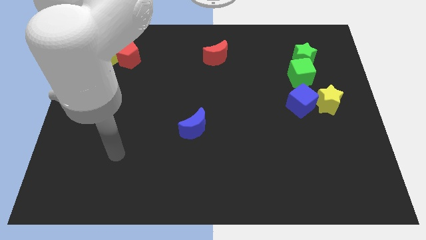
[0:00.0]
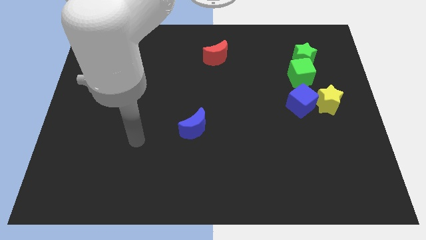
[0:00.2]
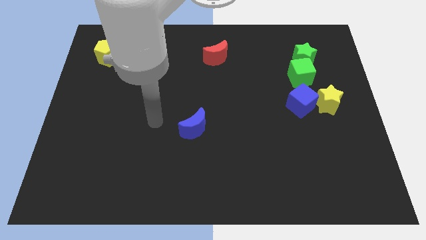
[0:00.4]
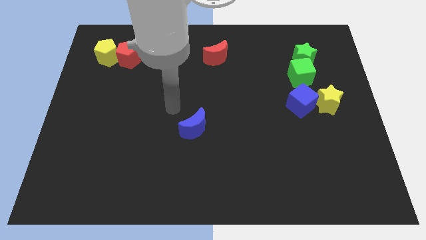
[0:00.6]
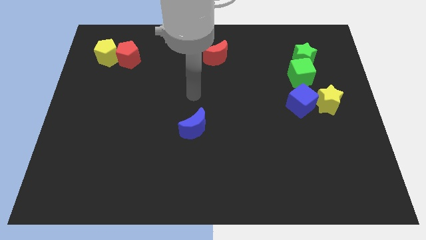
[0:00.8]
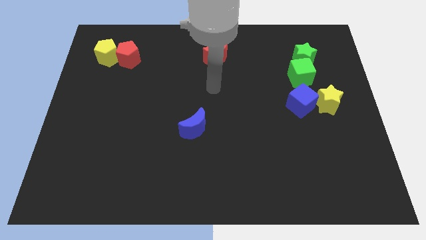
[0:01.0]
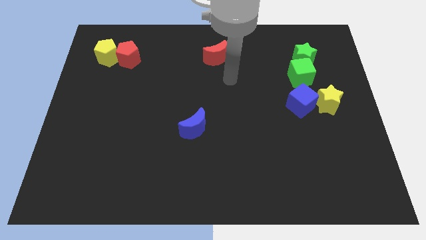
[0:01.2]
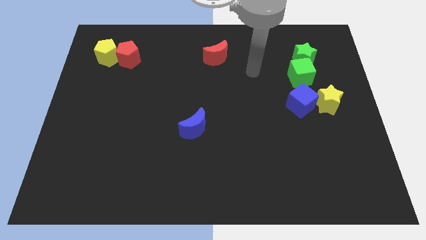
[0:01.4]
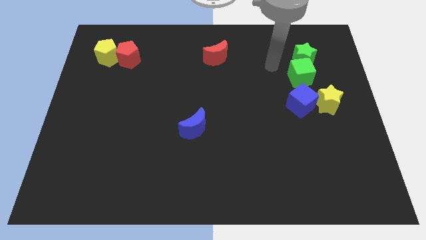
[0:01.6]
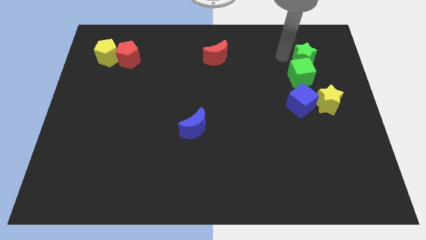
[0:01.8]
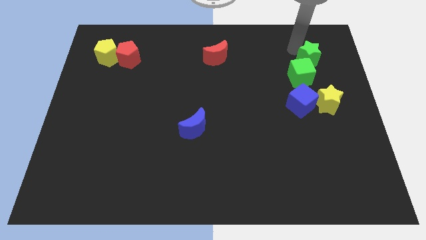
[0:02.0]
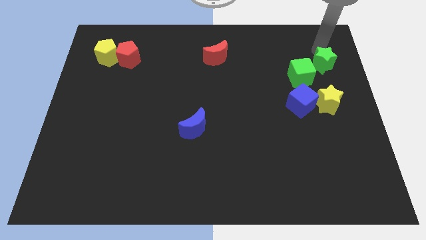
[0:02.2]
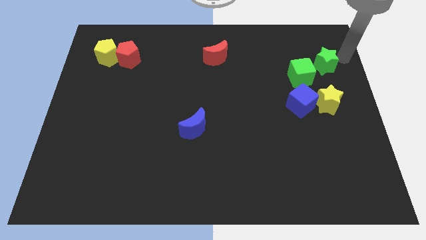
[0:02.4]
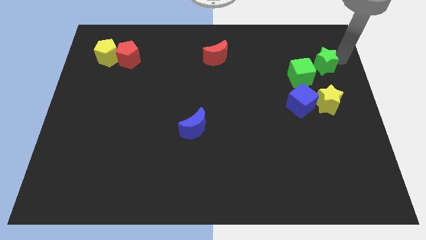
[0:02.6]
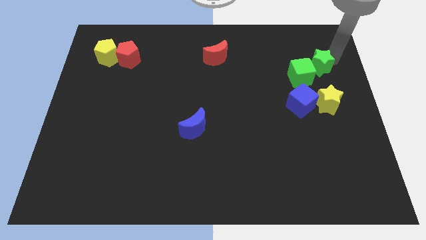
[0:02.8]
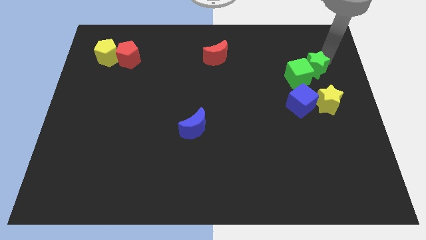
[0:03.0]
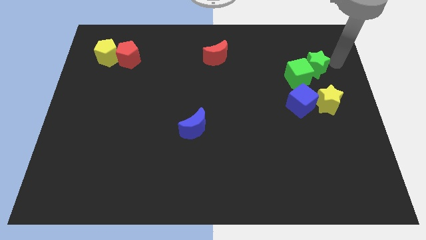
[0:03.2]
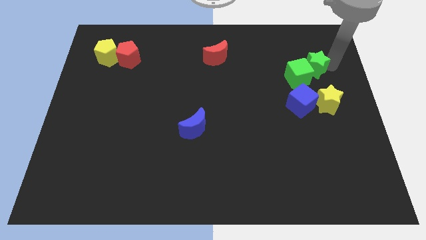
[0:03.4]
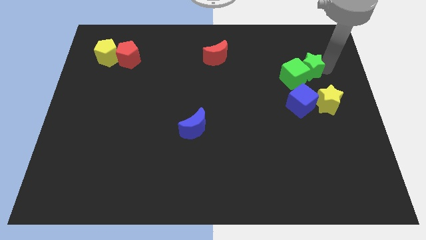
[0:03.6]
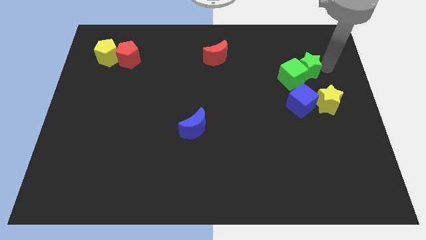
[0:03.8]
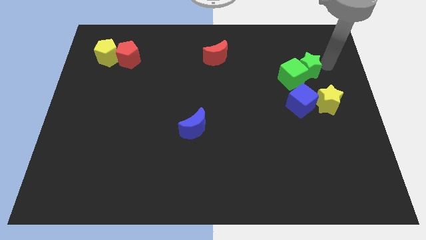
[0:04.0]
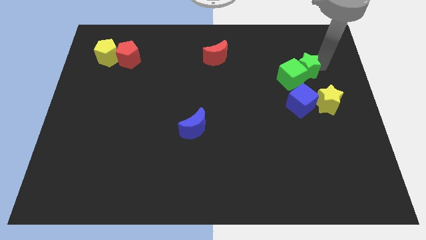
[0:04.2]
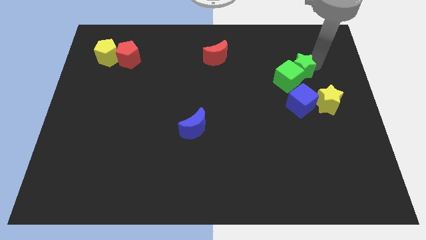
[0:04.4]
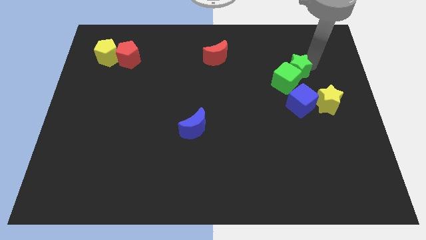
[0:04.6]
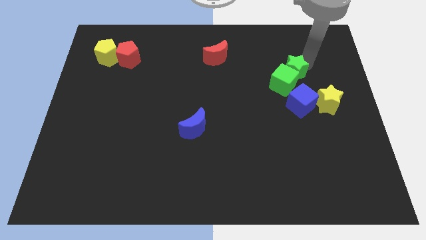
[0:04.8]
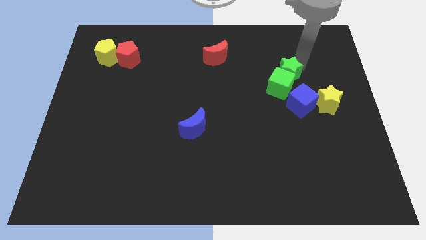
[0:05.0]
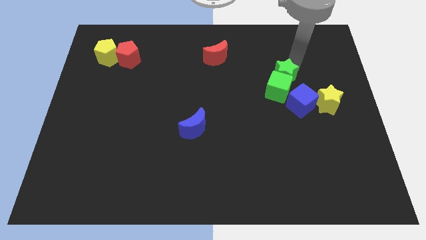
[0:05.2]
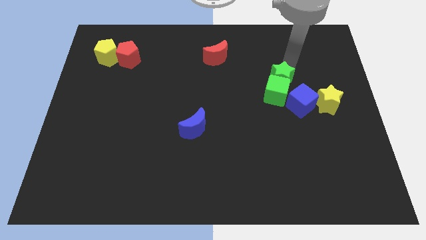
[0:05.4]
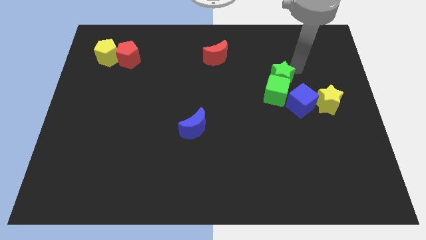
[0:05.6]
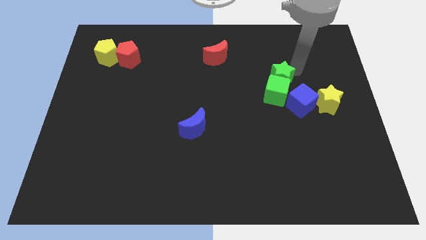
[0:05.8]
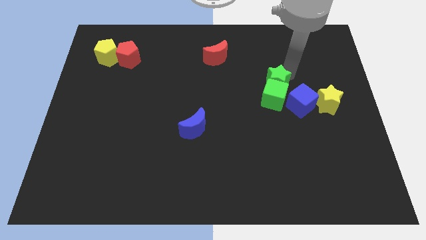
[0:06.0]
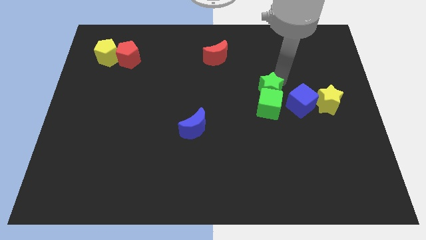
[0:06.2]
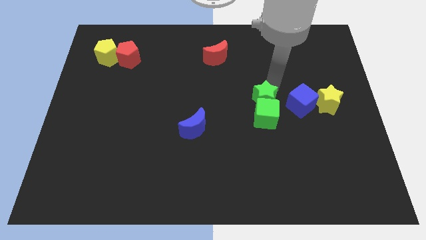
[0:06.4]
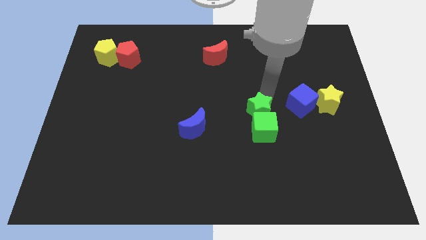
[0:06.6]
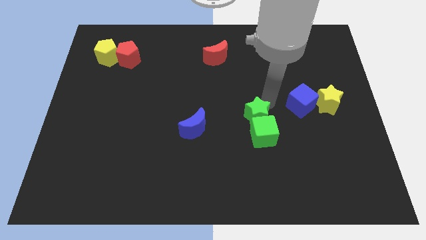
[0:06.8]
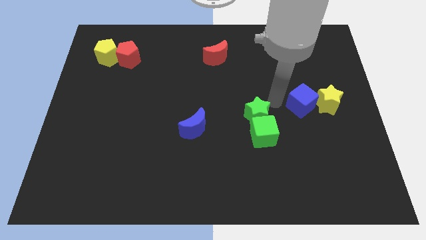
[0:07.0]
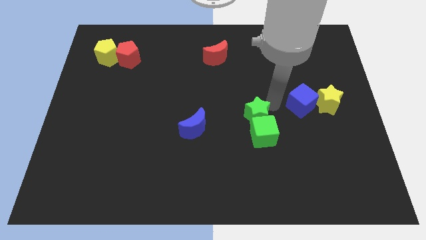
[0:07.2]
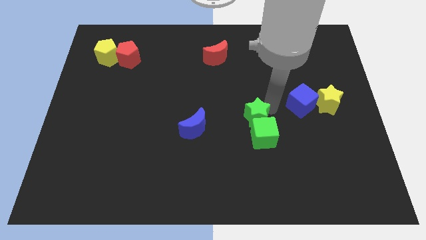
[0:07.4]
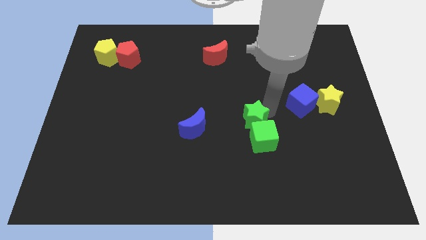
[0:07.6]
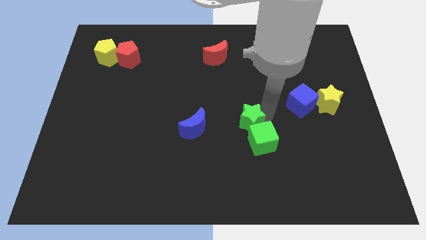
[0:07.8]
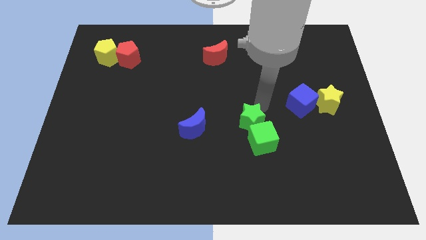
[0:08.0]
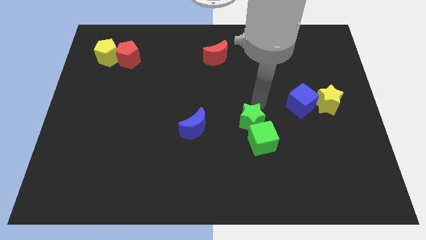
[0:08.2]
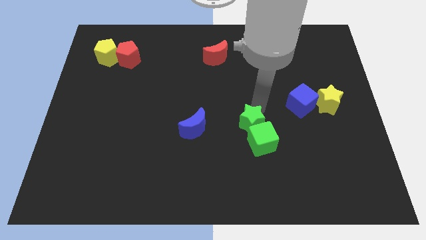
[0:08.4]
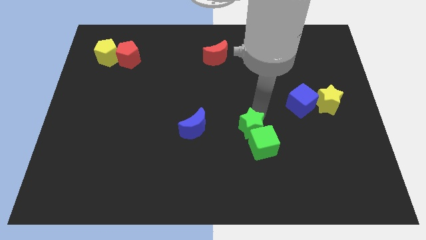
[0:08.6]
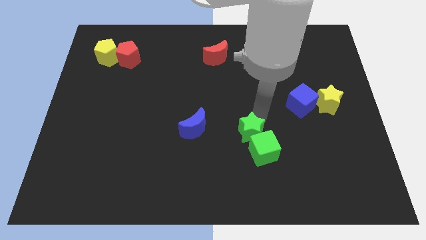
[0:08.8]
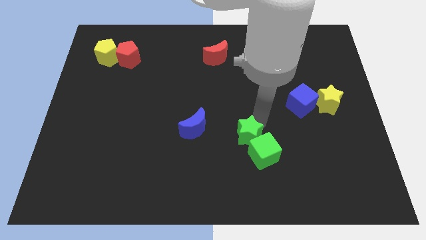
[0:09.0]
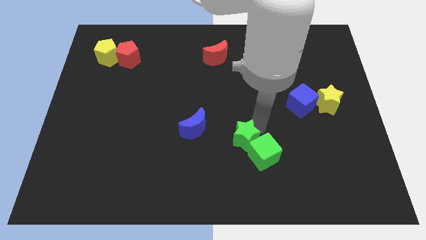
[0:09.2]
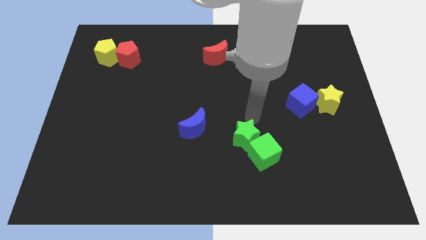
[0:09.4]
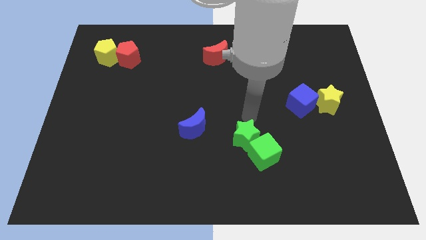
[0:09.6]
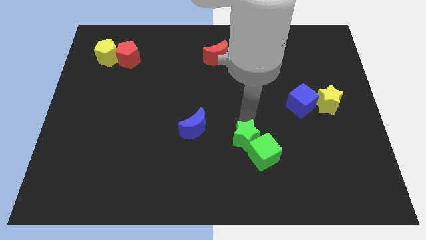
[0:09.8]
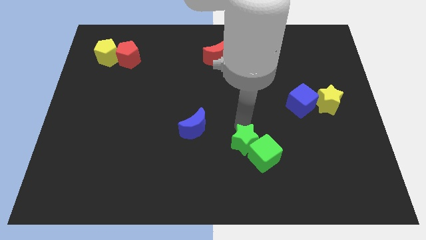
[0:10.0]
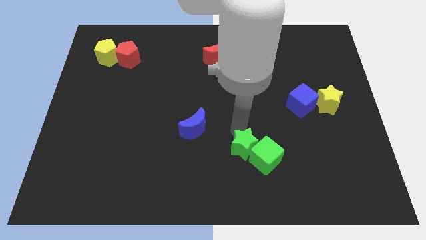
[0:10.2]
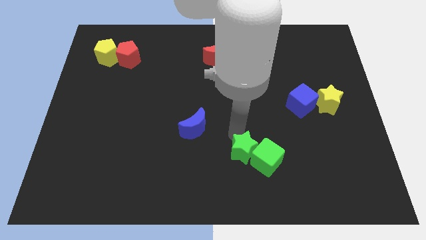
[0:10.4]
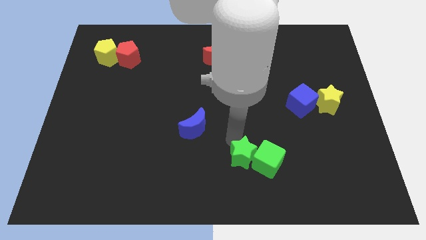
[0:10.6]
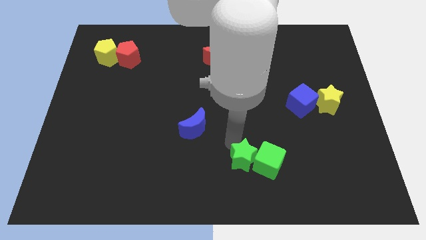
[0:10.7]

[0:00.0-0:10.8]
put the green star to the bottom side

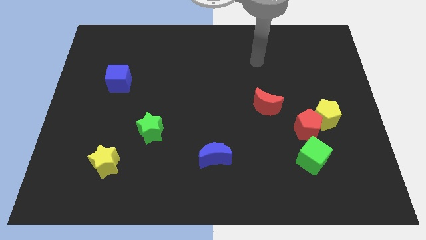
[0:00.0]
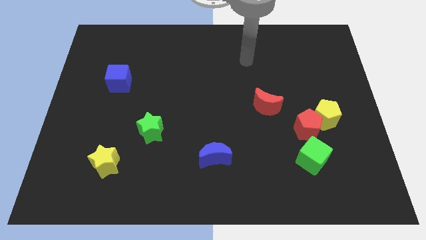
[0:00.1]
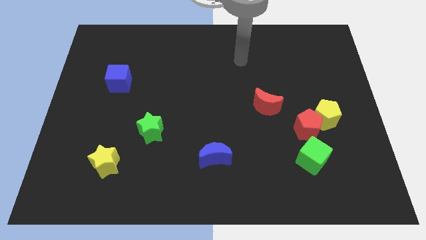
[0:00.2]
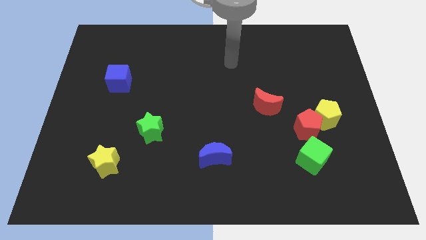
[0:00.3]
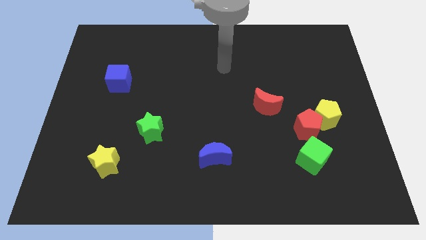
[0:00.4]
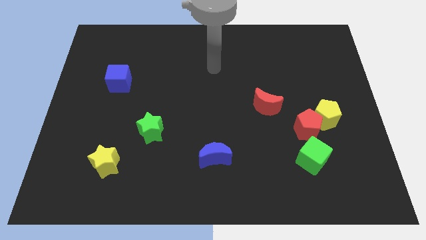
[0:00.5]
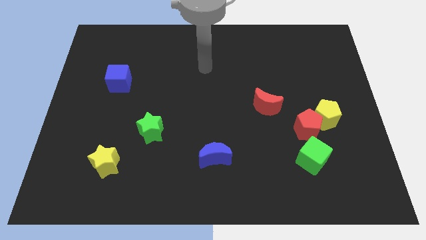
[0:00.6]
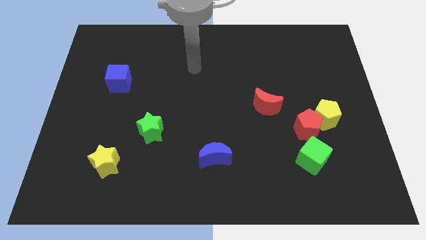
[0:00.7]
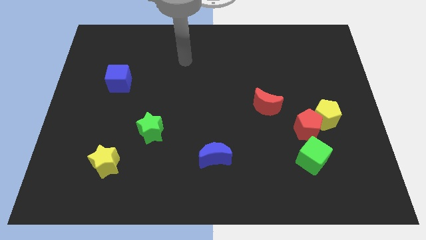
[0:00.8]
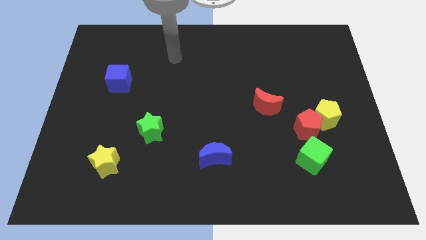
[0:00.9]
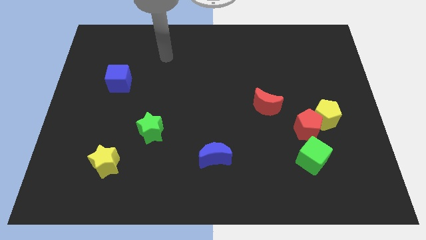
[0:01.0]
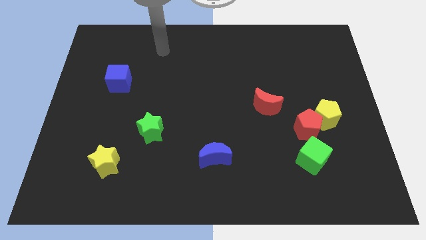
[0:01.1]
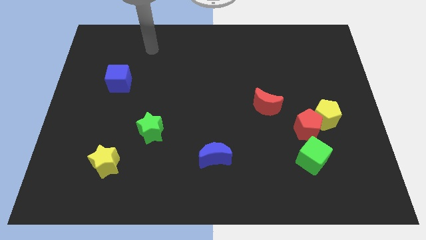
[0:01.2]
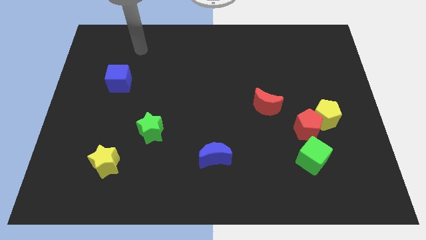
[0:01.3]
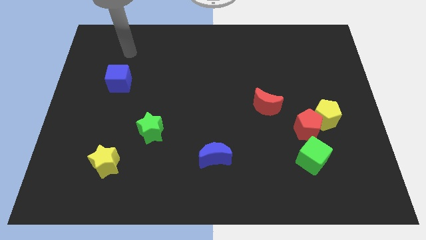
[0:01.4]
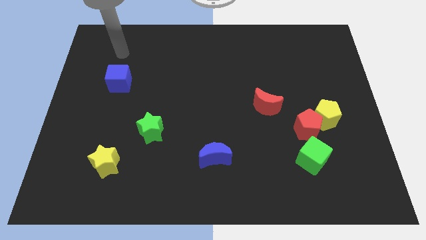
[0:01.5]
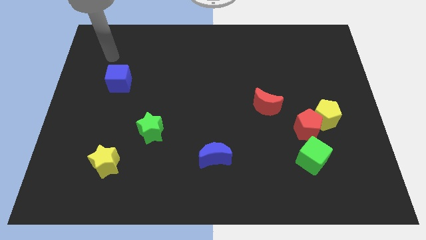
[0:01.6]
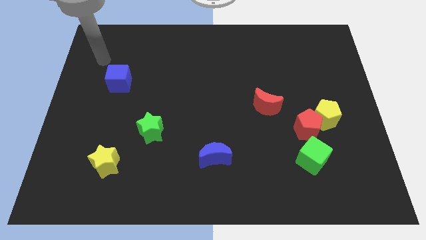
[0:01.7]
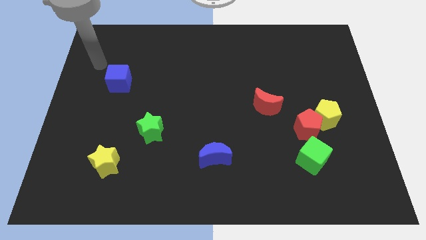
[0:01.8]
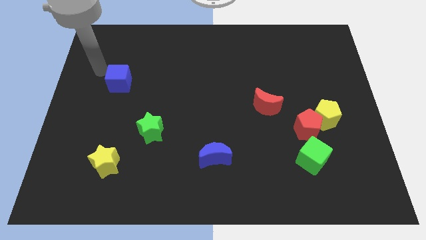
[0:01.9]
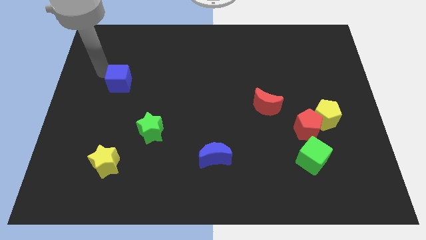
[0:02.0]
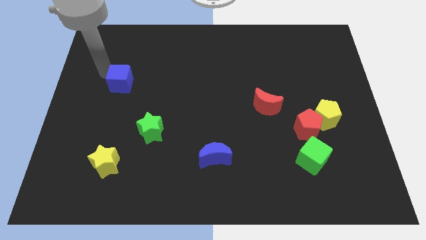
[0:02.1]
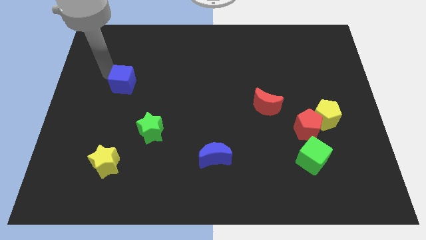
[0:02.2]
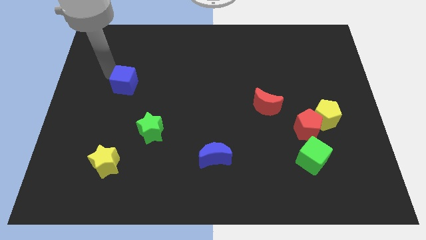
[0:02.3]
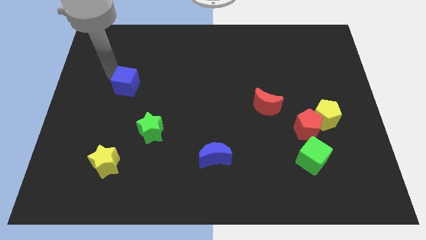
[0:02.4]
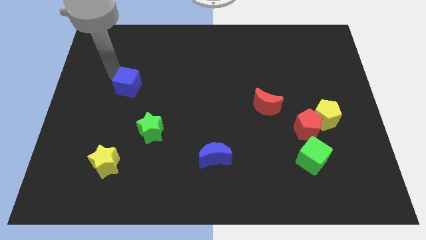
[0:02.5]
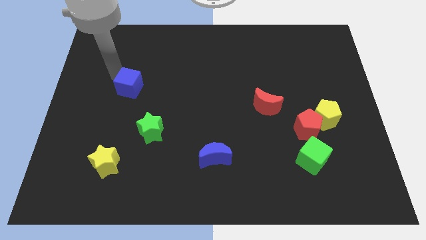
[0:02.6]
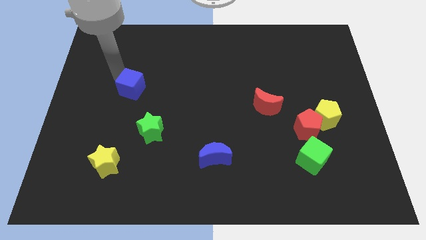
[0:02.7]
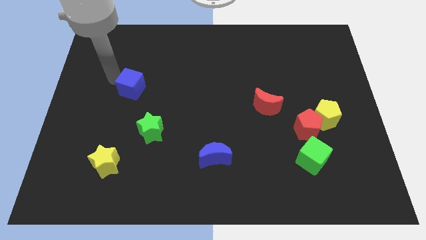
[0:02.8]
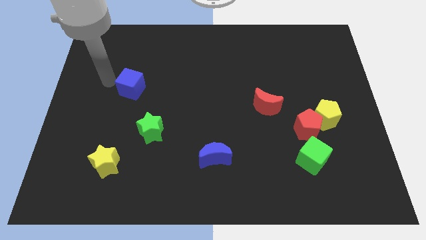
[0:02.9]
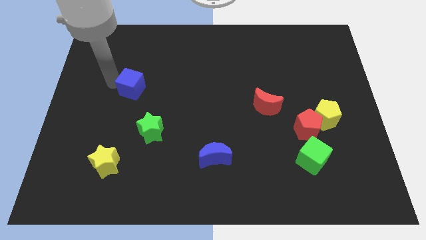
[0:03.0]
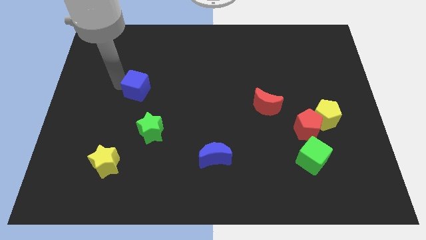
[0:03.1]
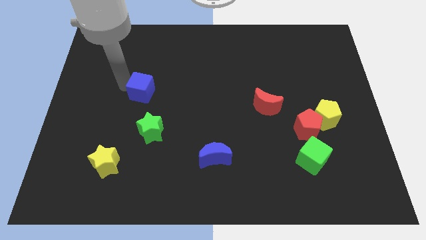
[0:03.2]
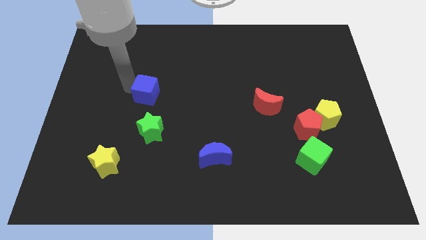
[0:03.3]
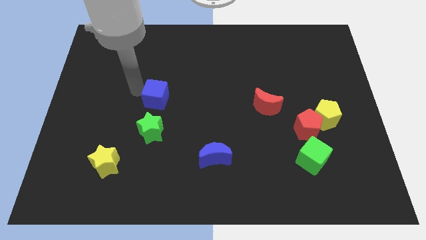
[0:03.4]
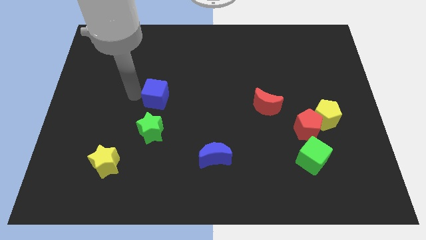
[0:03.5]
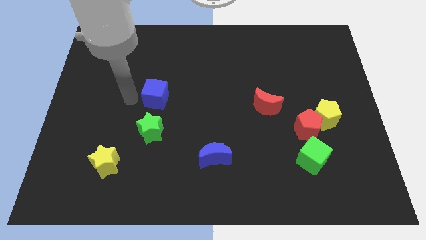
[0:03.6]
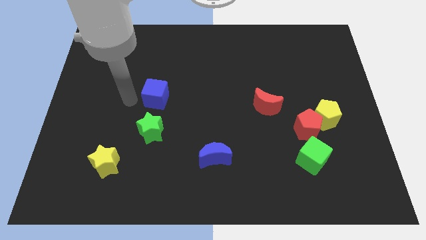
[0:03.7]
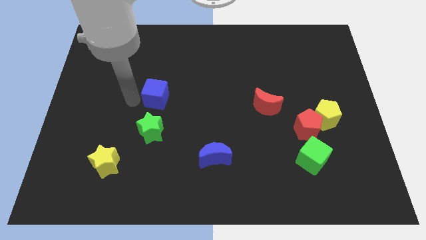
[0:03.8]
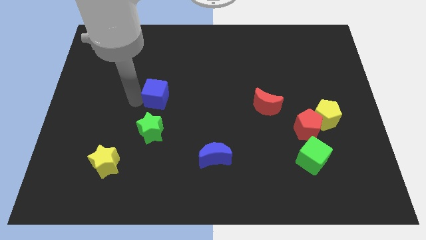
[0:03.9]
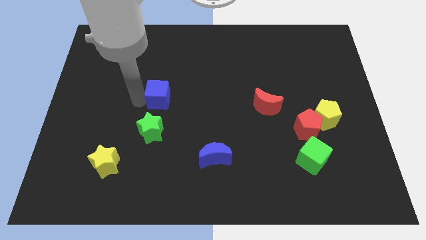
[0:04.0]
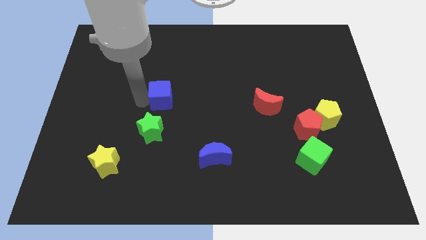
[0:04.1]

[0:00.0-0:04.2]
put the blue cube to the center
